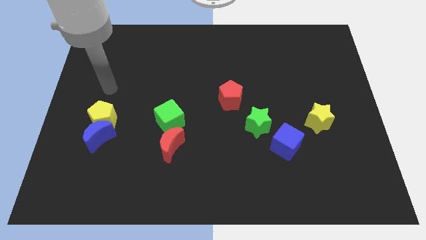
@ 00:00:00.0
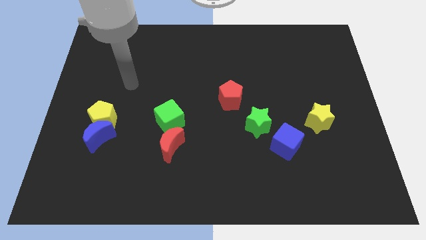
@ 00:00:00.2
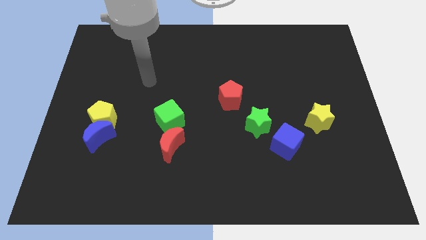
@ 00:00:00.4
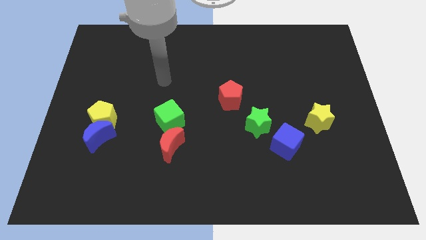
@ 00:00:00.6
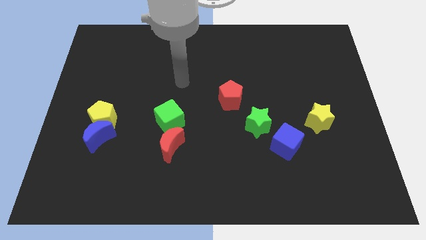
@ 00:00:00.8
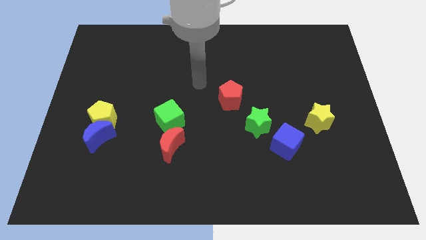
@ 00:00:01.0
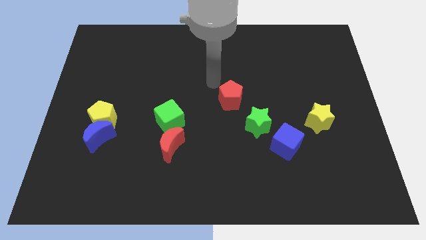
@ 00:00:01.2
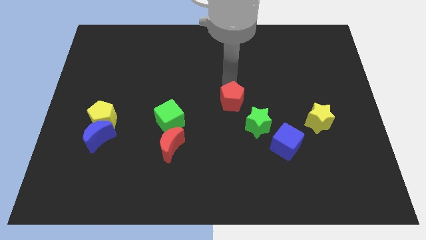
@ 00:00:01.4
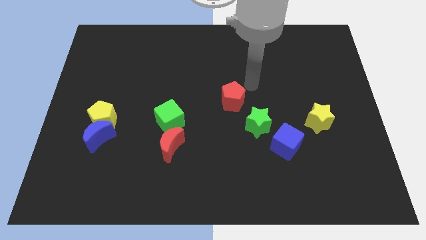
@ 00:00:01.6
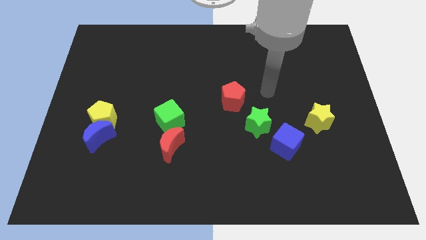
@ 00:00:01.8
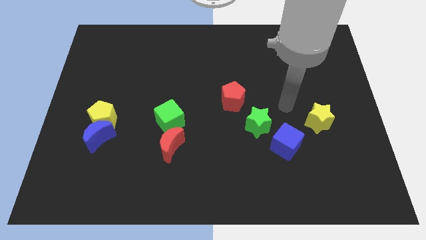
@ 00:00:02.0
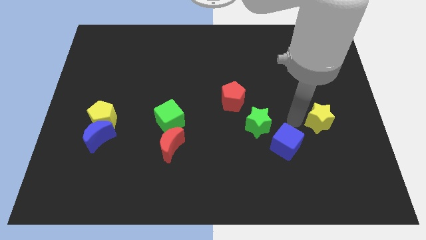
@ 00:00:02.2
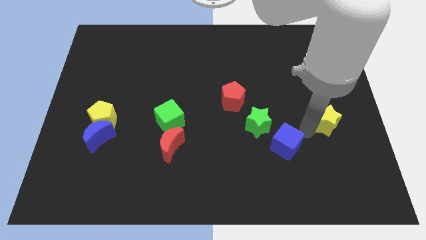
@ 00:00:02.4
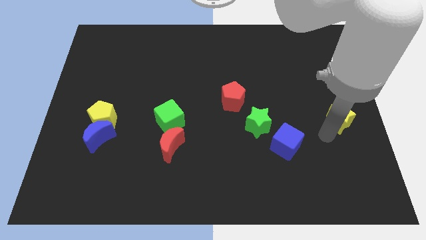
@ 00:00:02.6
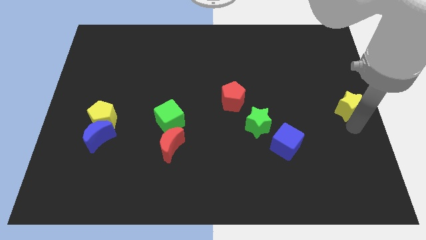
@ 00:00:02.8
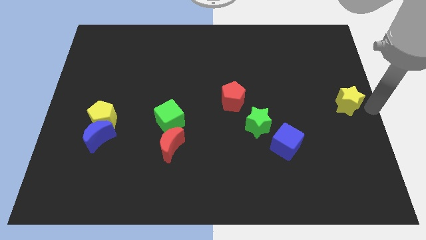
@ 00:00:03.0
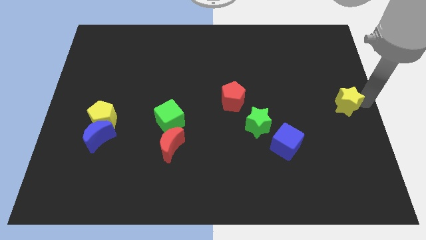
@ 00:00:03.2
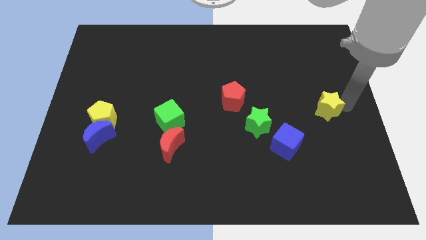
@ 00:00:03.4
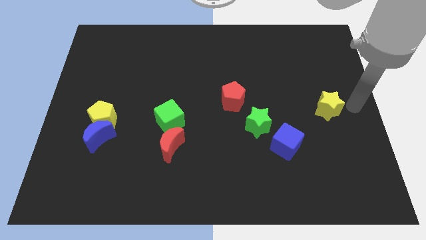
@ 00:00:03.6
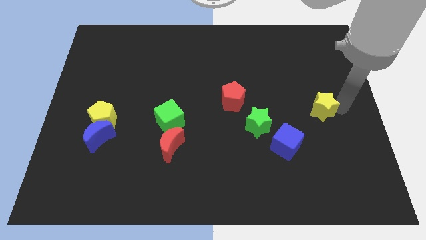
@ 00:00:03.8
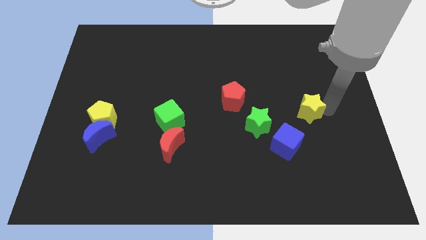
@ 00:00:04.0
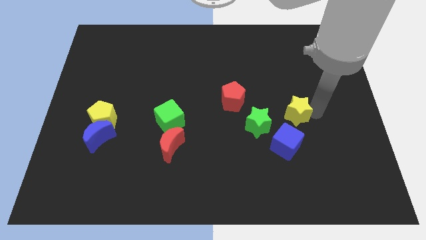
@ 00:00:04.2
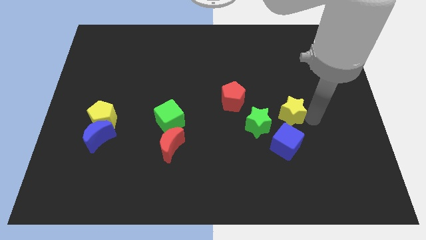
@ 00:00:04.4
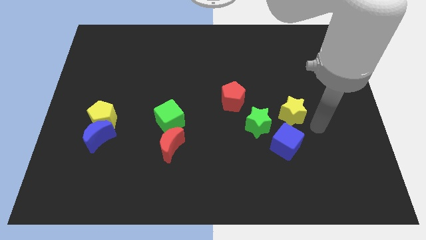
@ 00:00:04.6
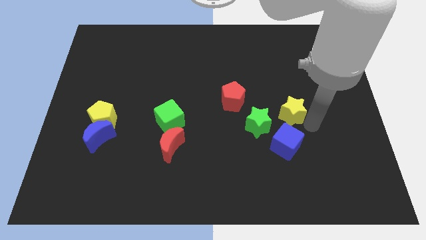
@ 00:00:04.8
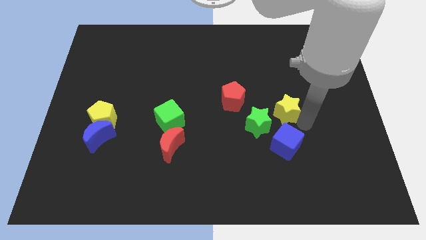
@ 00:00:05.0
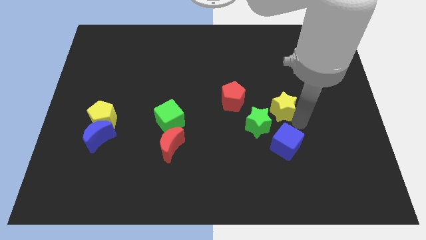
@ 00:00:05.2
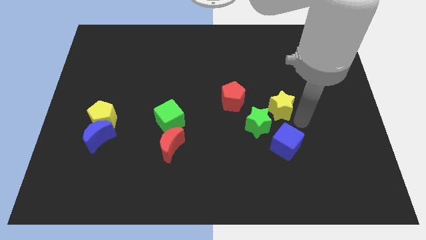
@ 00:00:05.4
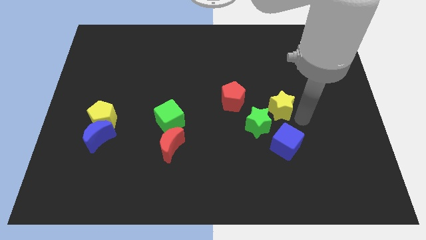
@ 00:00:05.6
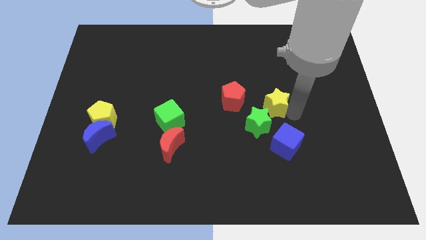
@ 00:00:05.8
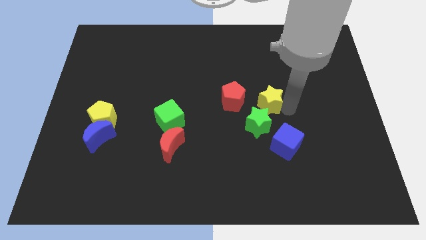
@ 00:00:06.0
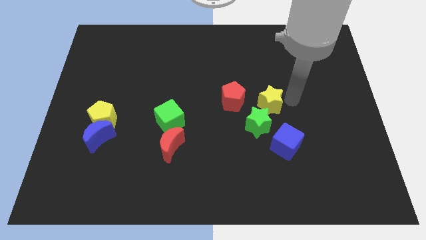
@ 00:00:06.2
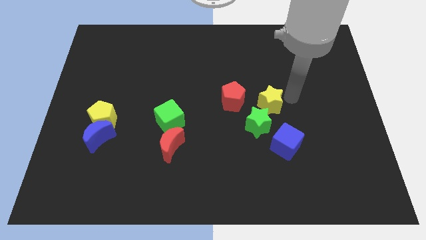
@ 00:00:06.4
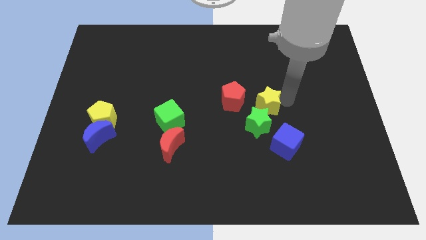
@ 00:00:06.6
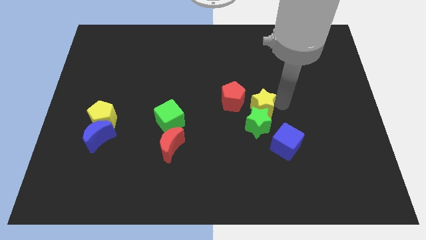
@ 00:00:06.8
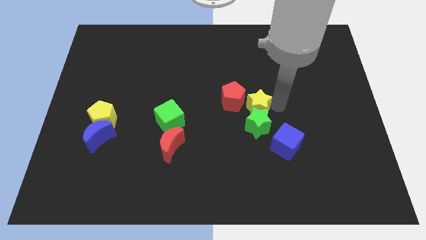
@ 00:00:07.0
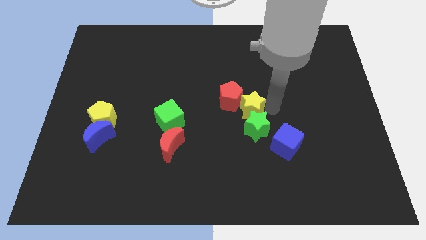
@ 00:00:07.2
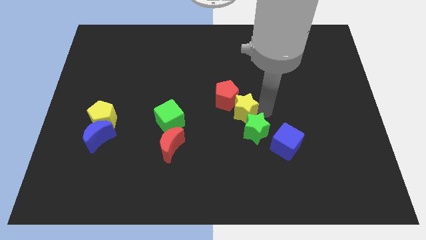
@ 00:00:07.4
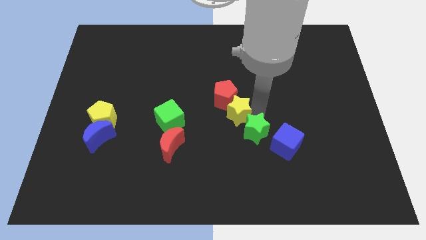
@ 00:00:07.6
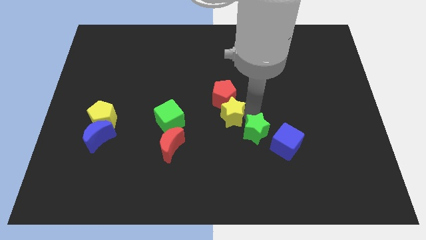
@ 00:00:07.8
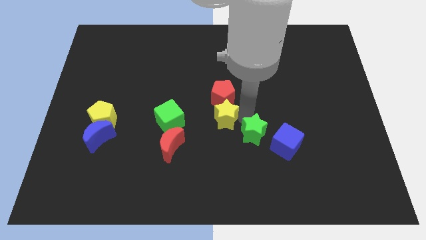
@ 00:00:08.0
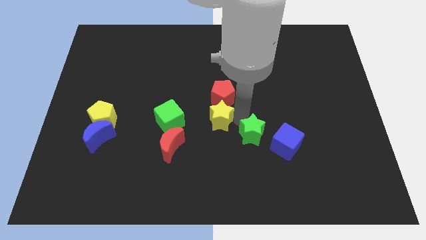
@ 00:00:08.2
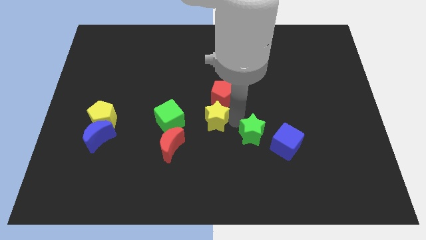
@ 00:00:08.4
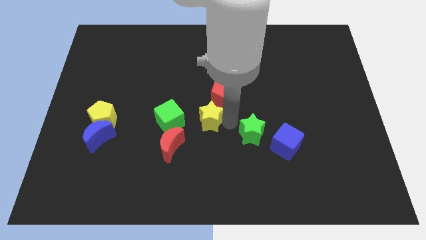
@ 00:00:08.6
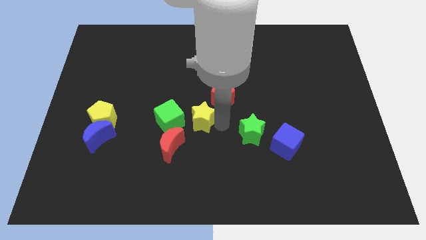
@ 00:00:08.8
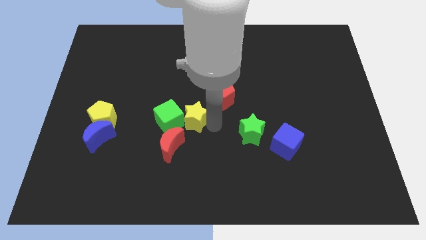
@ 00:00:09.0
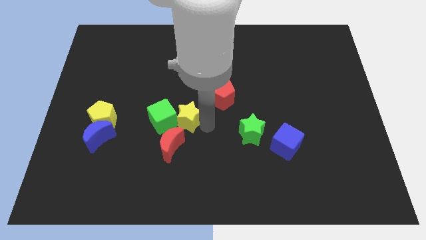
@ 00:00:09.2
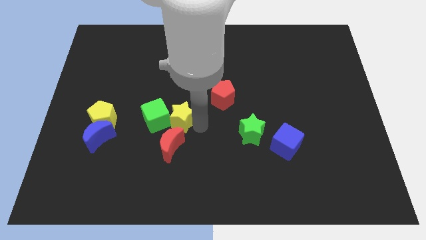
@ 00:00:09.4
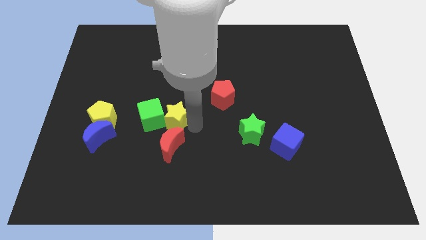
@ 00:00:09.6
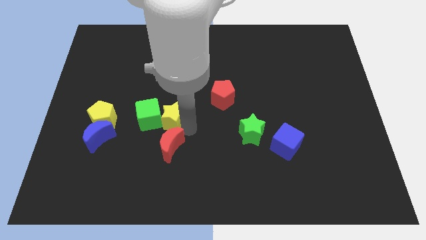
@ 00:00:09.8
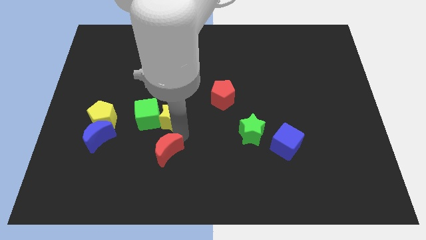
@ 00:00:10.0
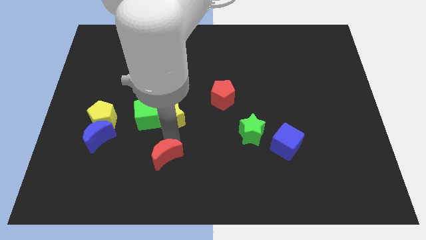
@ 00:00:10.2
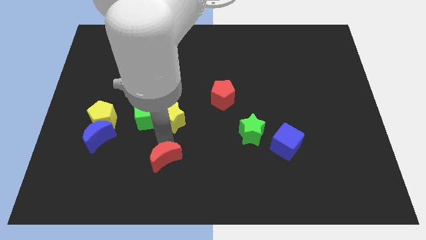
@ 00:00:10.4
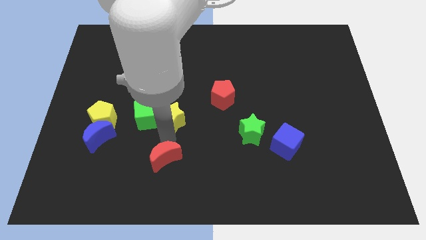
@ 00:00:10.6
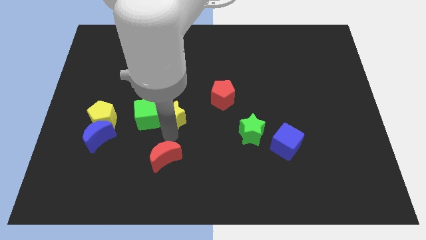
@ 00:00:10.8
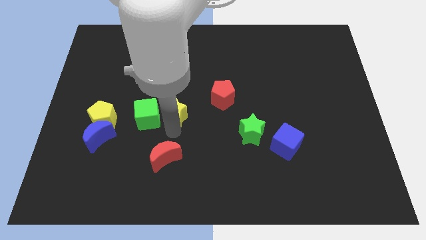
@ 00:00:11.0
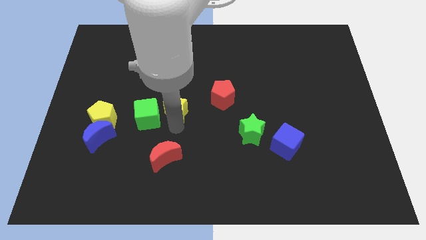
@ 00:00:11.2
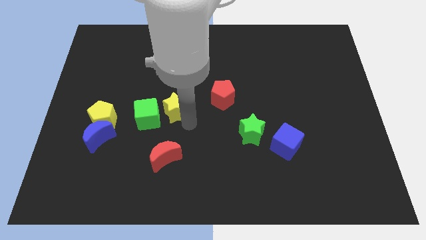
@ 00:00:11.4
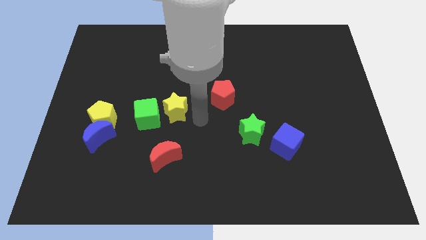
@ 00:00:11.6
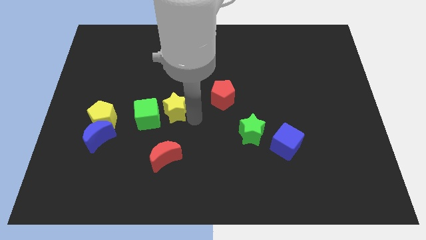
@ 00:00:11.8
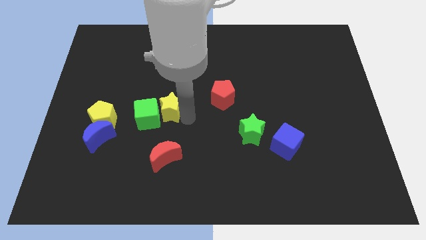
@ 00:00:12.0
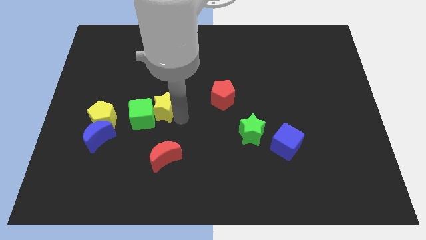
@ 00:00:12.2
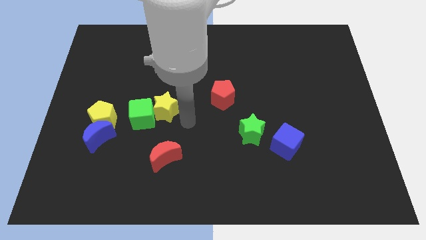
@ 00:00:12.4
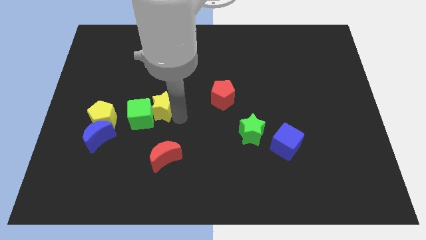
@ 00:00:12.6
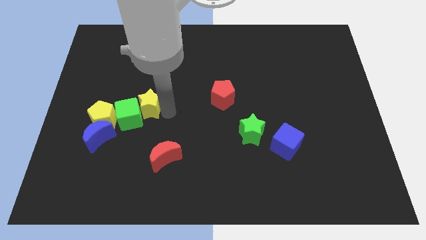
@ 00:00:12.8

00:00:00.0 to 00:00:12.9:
slide the yellow star to the top right of the yellow pentagon

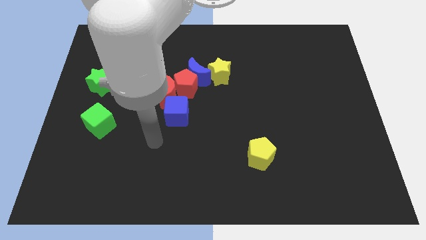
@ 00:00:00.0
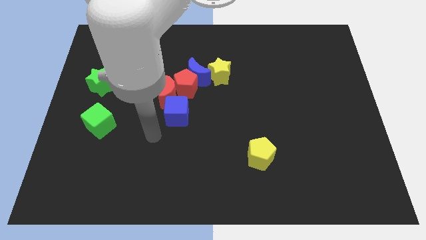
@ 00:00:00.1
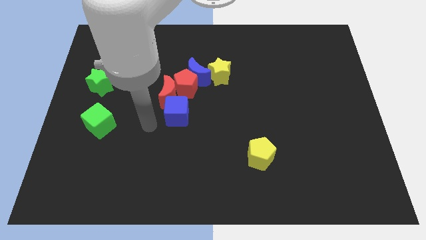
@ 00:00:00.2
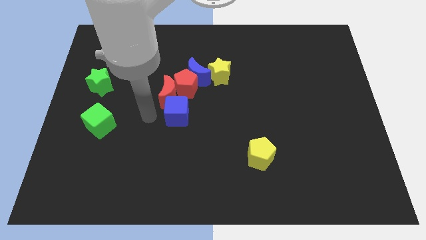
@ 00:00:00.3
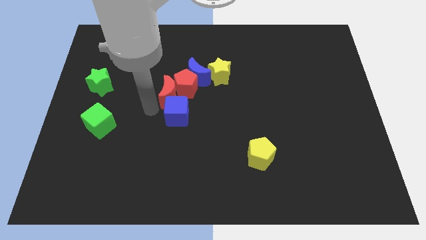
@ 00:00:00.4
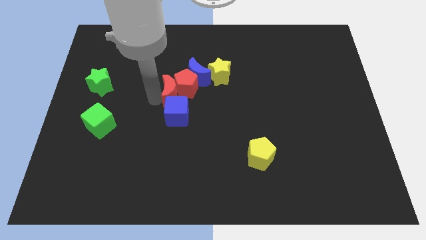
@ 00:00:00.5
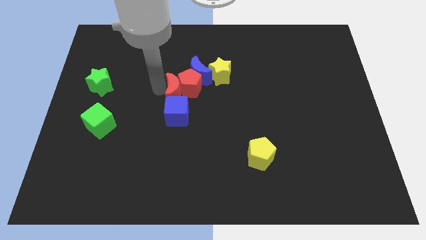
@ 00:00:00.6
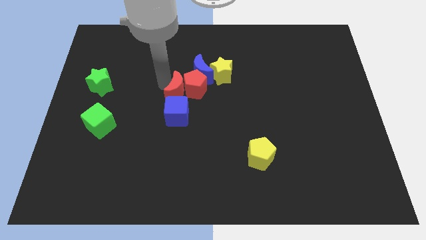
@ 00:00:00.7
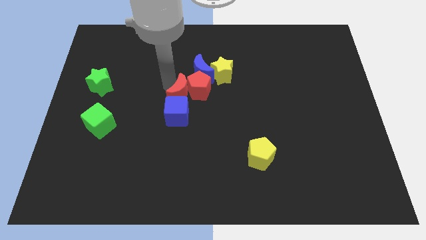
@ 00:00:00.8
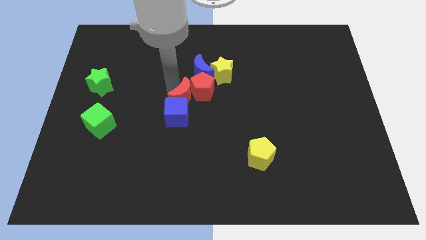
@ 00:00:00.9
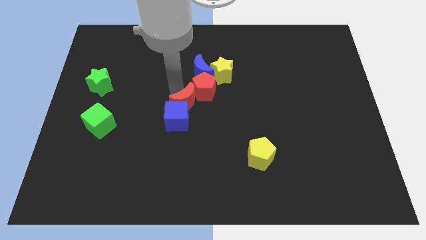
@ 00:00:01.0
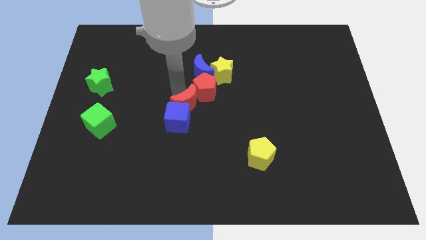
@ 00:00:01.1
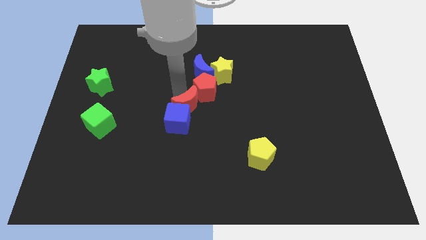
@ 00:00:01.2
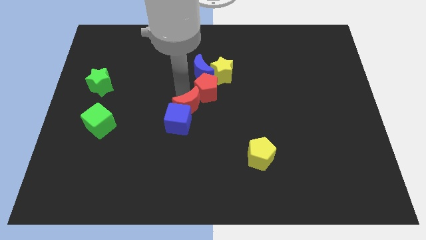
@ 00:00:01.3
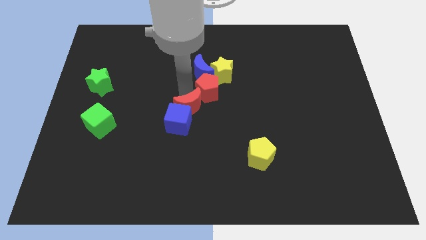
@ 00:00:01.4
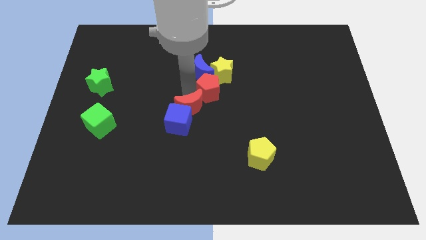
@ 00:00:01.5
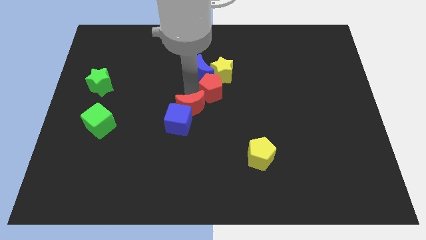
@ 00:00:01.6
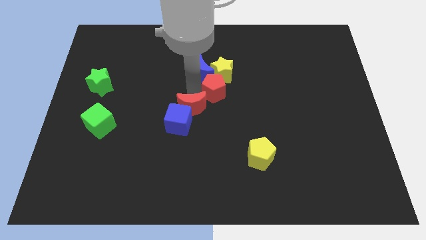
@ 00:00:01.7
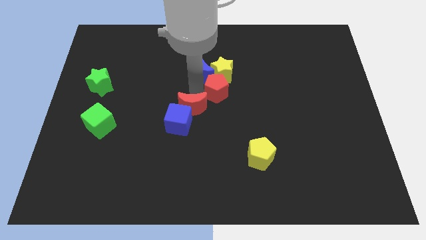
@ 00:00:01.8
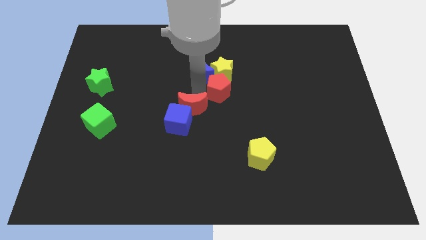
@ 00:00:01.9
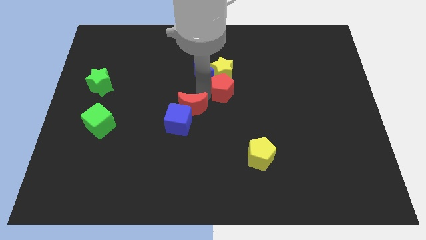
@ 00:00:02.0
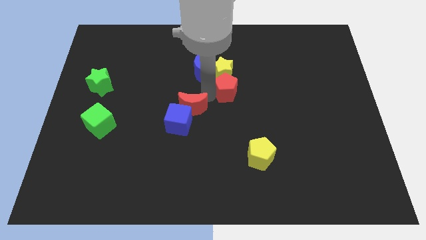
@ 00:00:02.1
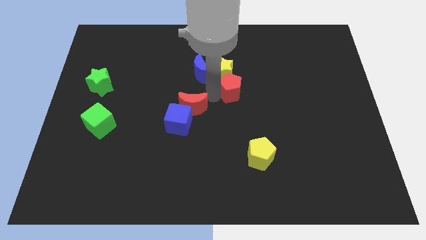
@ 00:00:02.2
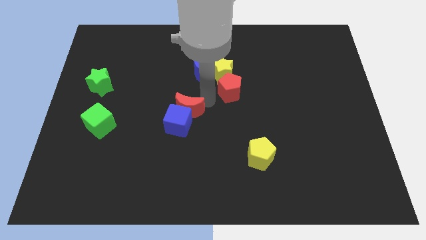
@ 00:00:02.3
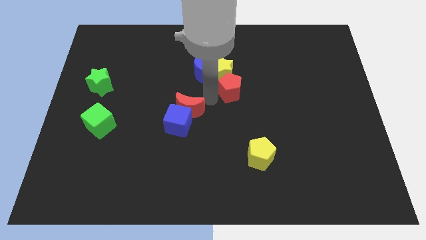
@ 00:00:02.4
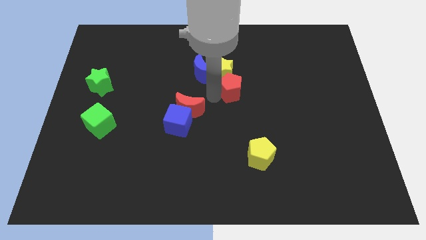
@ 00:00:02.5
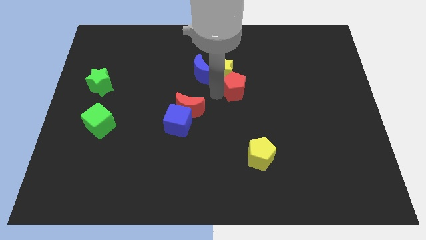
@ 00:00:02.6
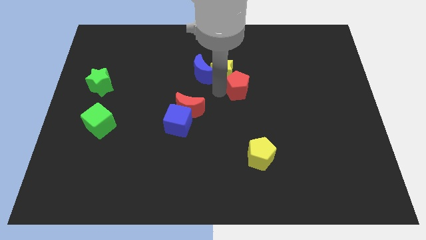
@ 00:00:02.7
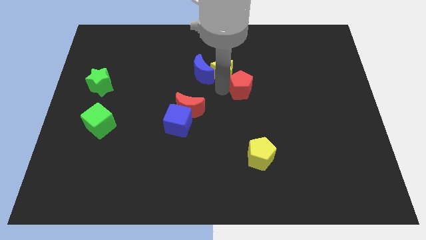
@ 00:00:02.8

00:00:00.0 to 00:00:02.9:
push the red pentagon to the right side of the yellow star
